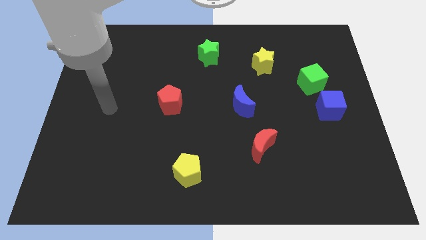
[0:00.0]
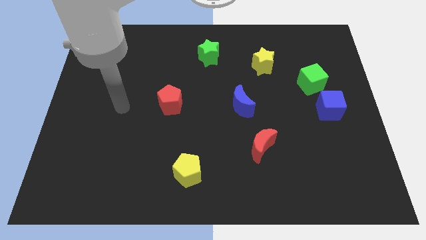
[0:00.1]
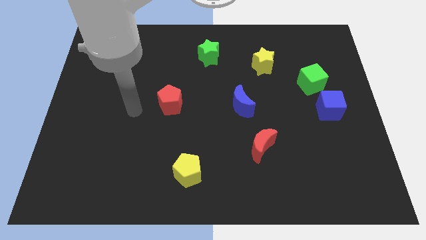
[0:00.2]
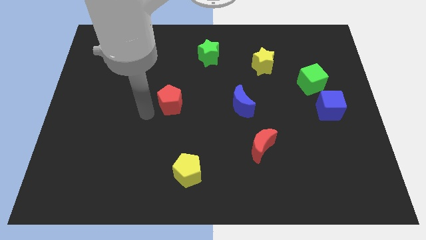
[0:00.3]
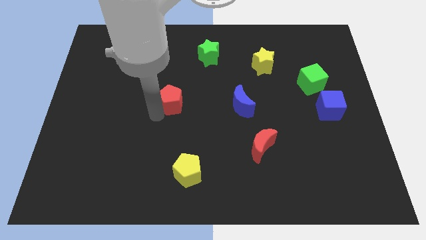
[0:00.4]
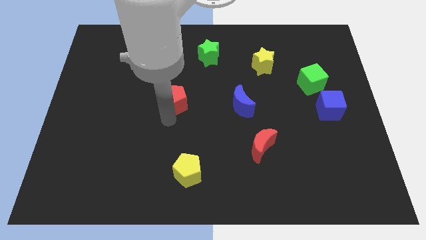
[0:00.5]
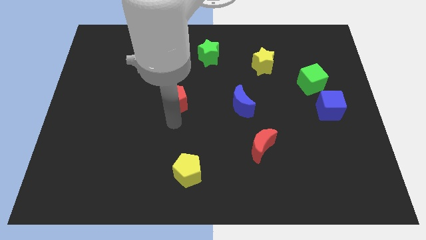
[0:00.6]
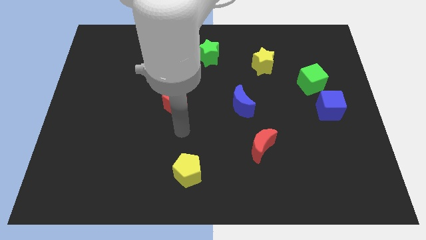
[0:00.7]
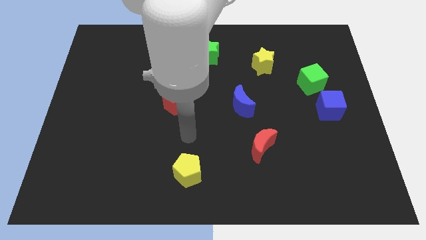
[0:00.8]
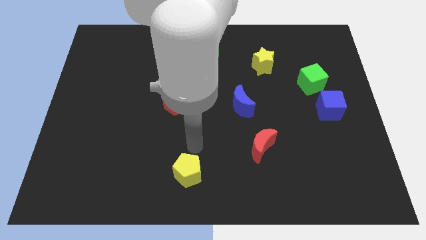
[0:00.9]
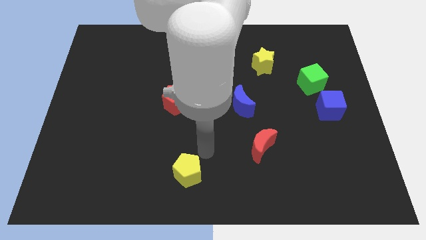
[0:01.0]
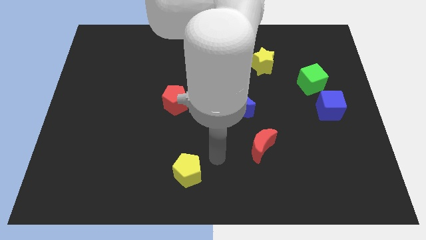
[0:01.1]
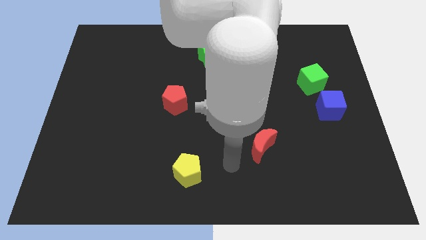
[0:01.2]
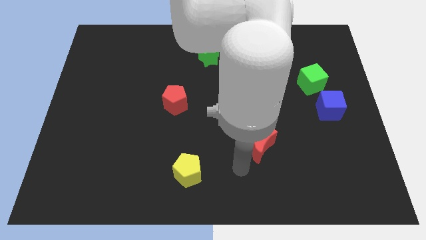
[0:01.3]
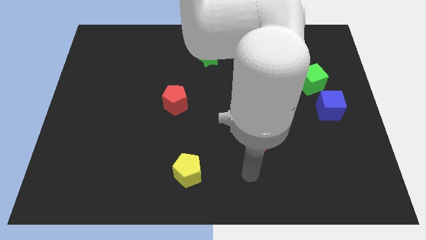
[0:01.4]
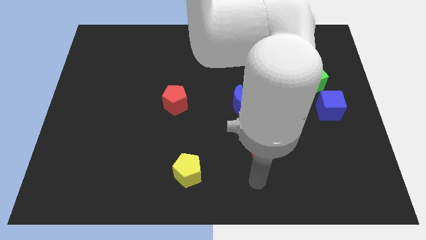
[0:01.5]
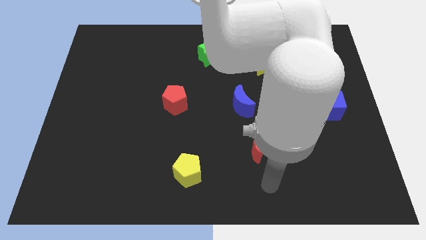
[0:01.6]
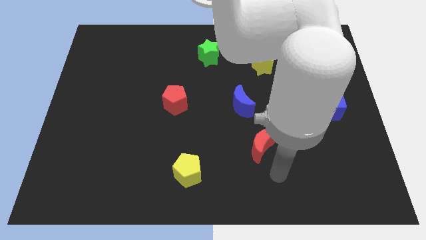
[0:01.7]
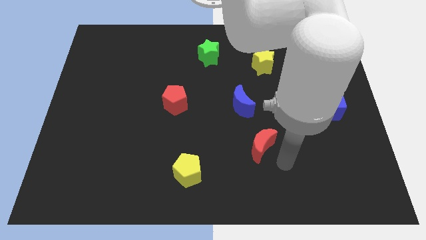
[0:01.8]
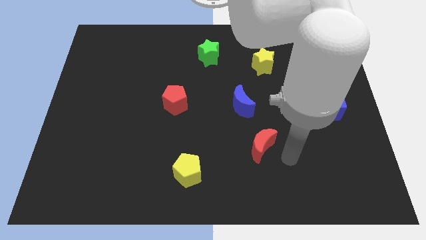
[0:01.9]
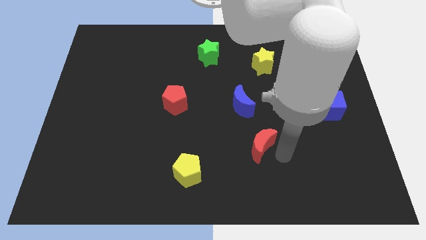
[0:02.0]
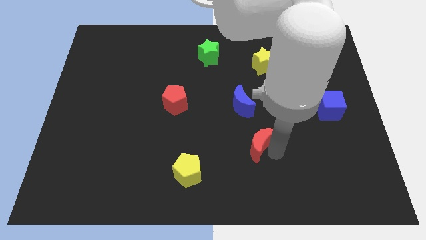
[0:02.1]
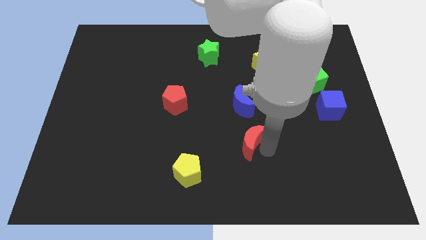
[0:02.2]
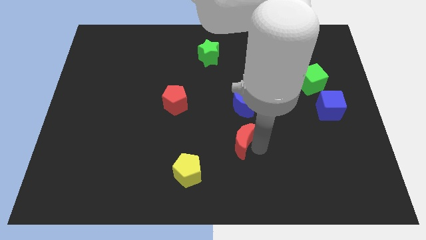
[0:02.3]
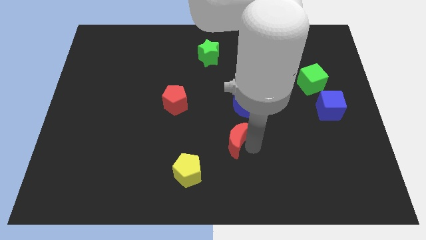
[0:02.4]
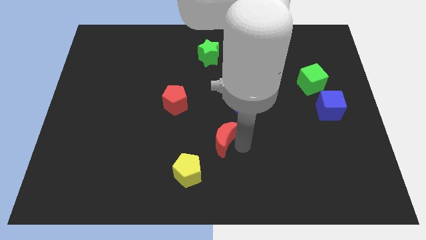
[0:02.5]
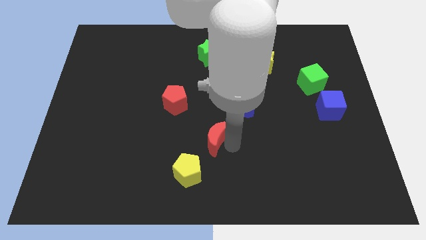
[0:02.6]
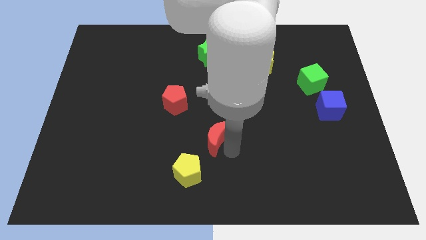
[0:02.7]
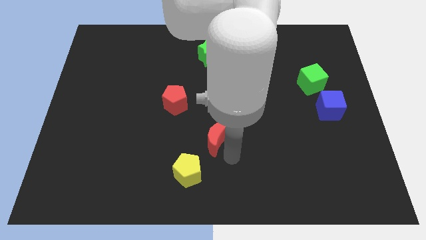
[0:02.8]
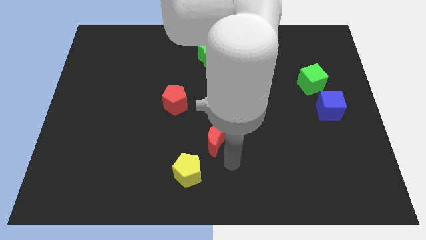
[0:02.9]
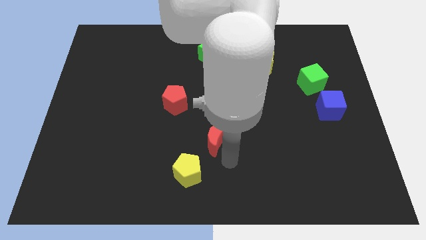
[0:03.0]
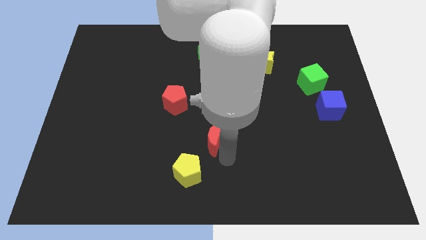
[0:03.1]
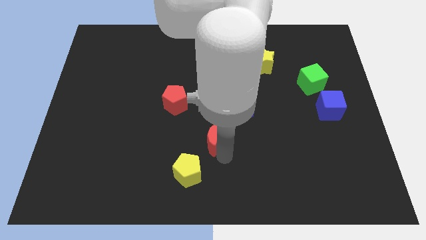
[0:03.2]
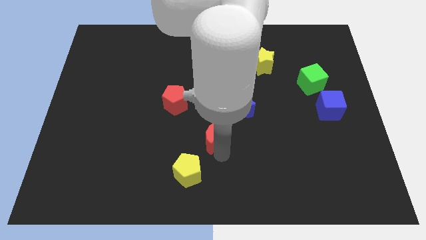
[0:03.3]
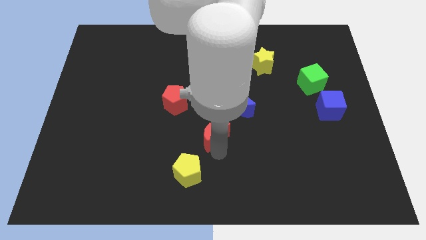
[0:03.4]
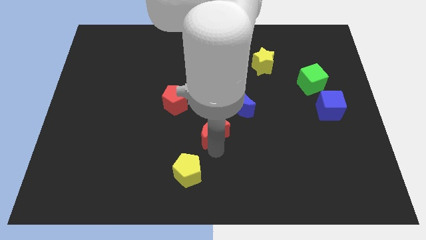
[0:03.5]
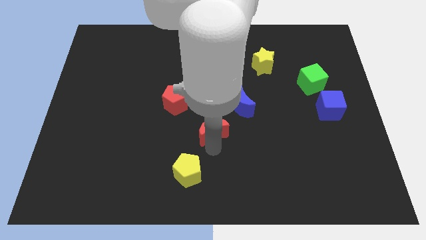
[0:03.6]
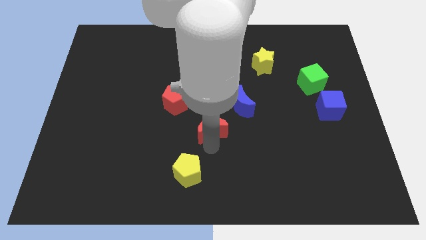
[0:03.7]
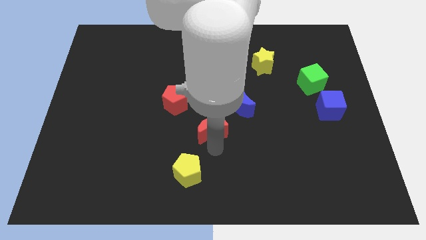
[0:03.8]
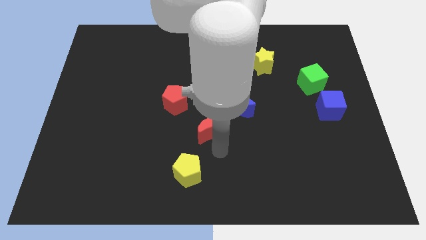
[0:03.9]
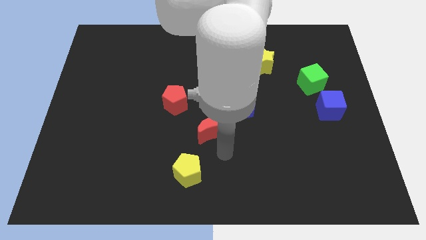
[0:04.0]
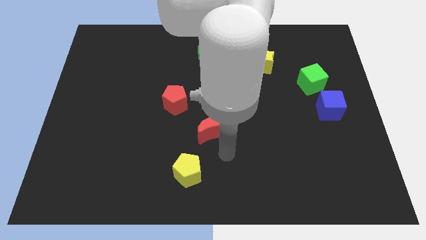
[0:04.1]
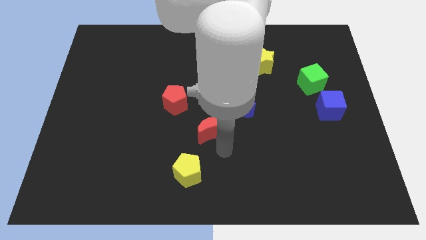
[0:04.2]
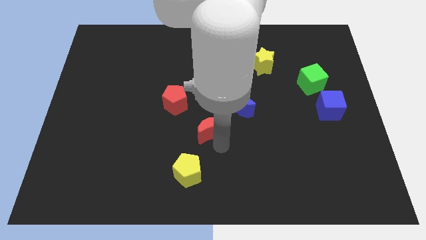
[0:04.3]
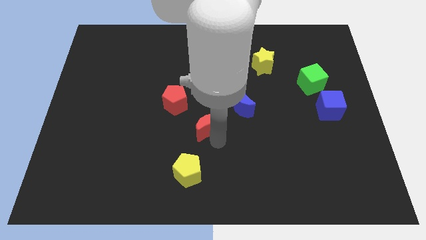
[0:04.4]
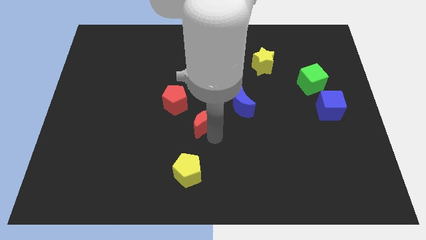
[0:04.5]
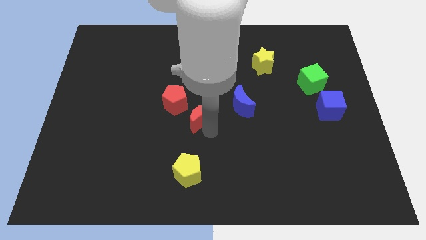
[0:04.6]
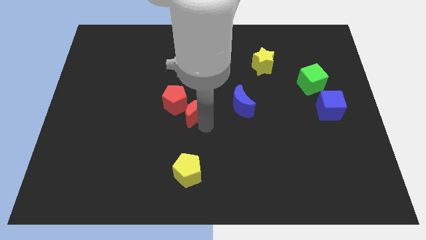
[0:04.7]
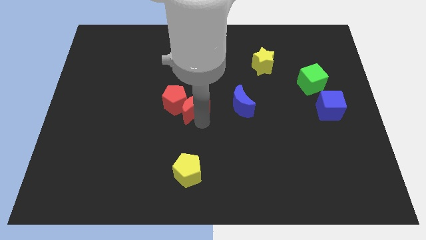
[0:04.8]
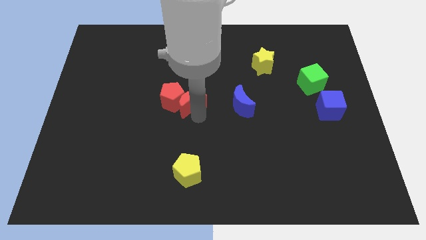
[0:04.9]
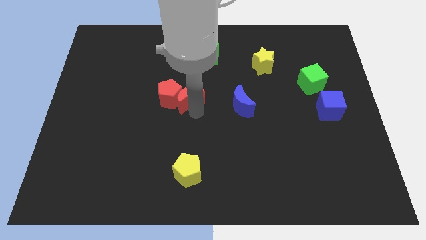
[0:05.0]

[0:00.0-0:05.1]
push the red moon upwards and left diagonally

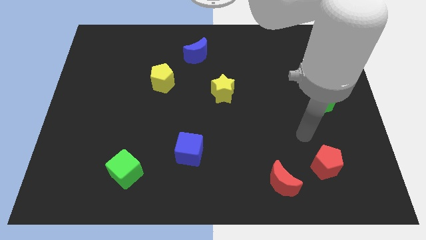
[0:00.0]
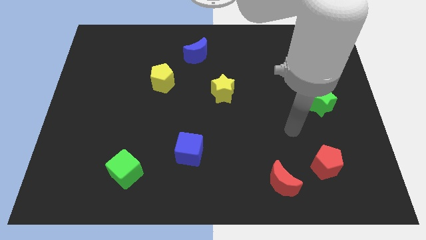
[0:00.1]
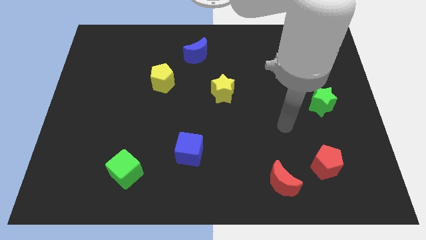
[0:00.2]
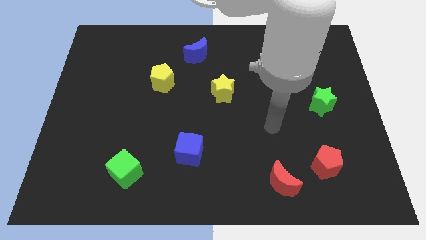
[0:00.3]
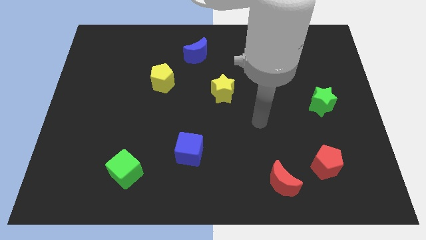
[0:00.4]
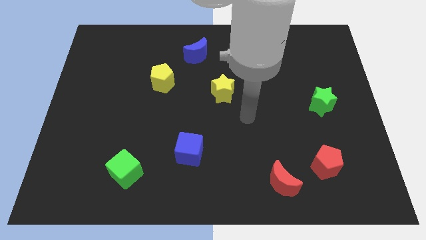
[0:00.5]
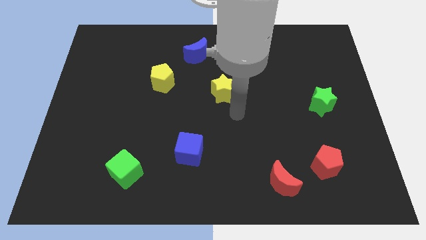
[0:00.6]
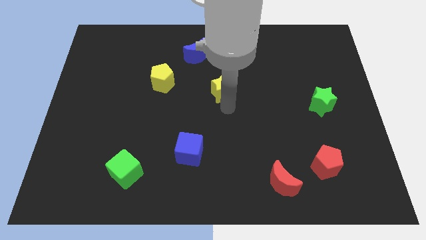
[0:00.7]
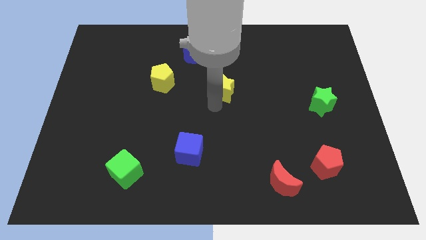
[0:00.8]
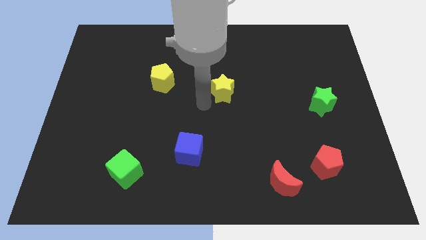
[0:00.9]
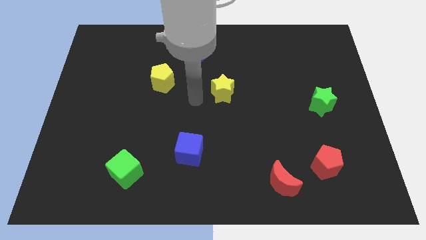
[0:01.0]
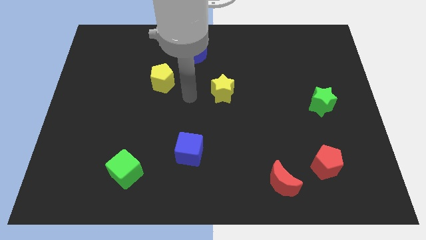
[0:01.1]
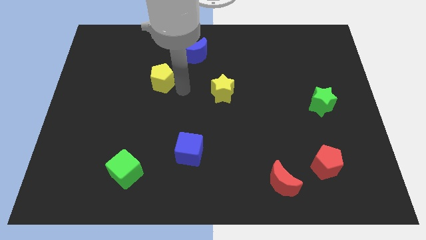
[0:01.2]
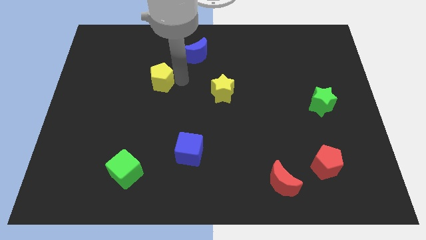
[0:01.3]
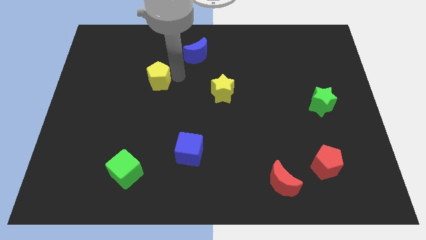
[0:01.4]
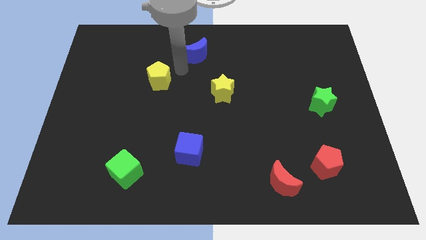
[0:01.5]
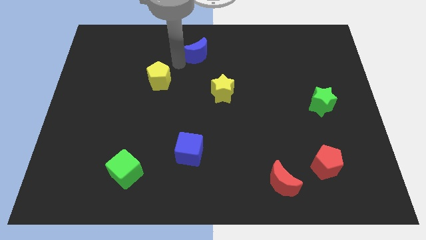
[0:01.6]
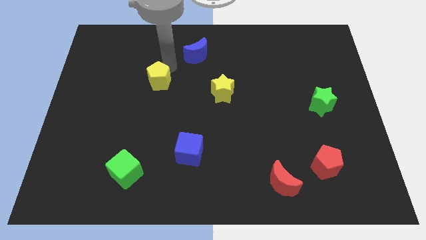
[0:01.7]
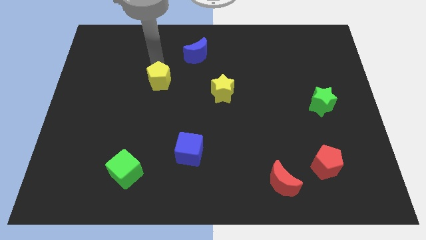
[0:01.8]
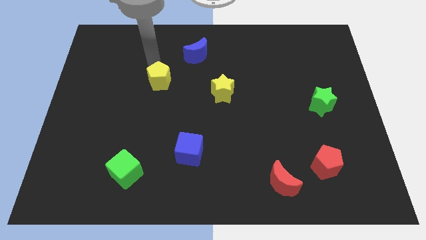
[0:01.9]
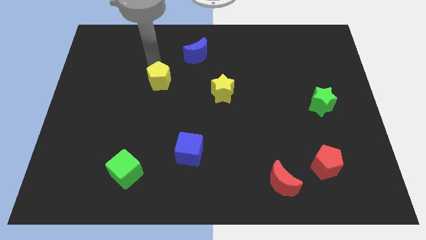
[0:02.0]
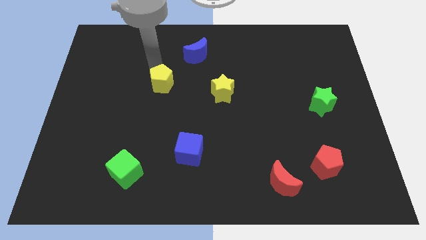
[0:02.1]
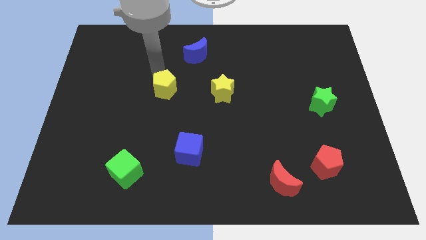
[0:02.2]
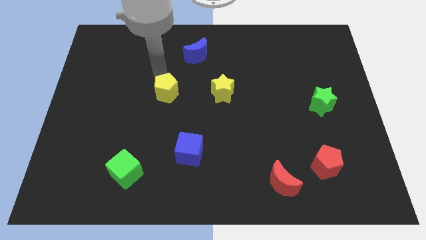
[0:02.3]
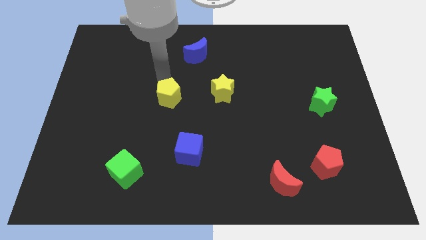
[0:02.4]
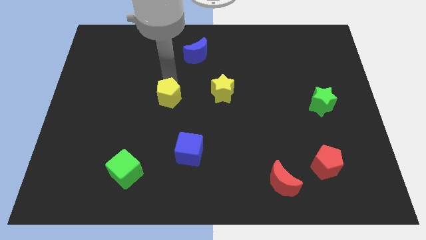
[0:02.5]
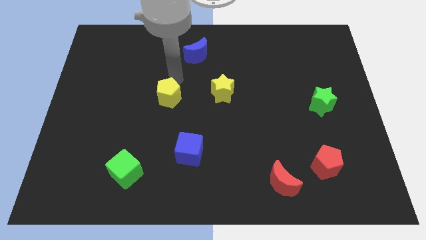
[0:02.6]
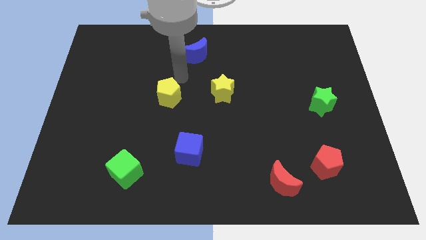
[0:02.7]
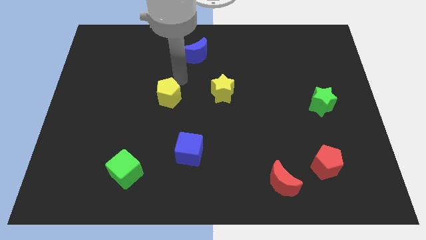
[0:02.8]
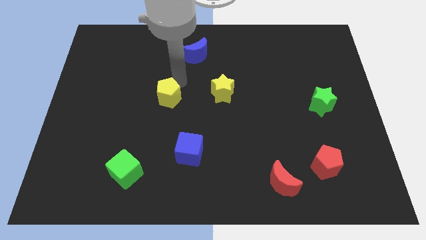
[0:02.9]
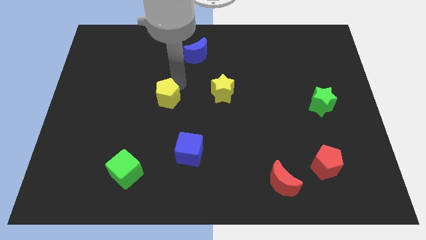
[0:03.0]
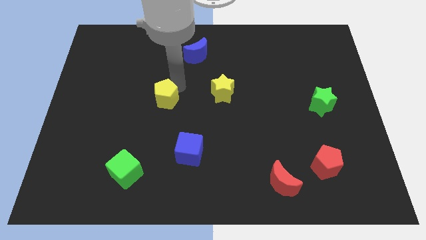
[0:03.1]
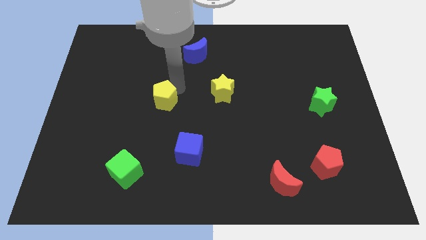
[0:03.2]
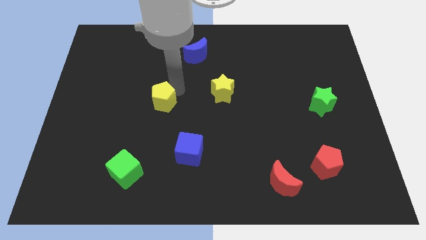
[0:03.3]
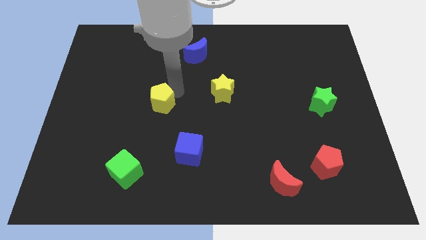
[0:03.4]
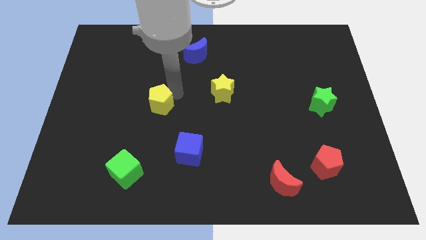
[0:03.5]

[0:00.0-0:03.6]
move the yellow pentagon downwards a bit
